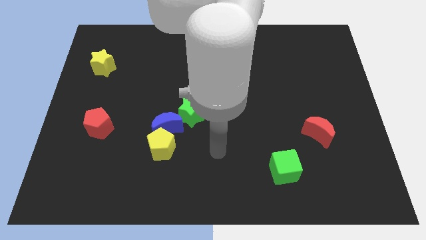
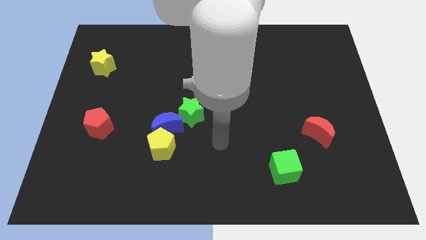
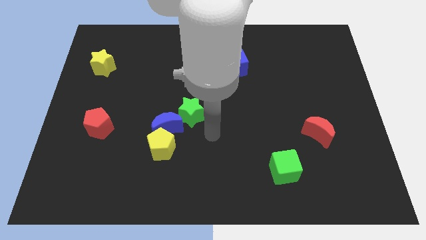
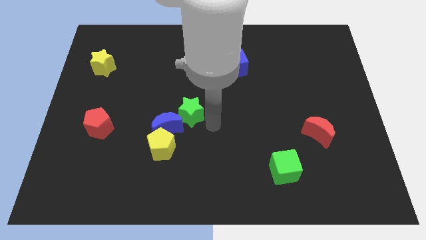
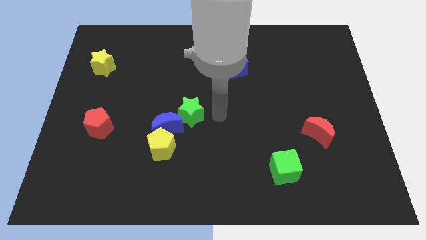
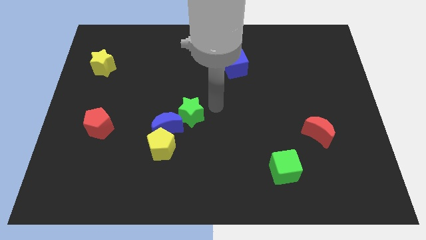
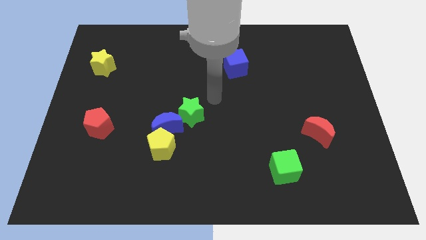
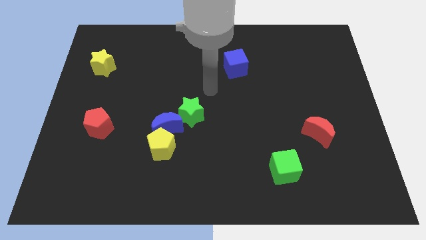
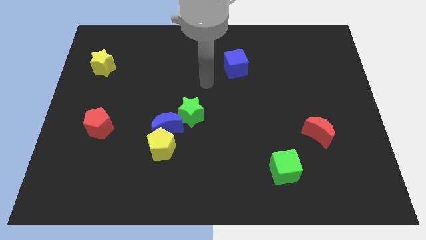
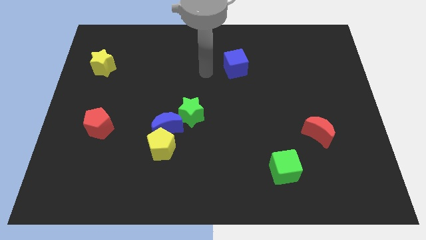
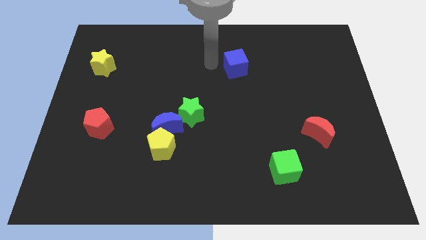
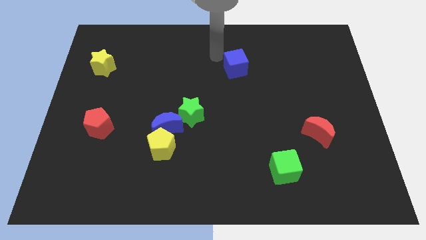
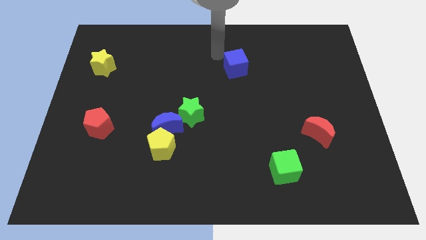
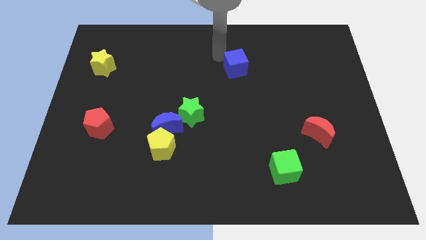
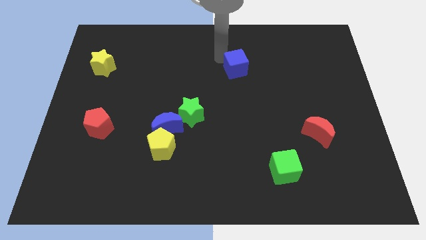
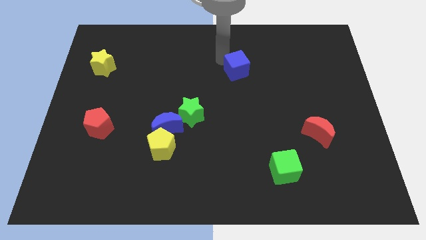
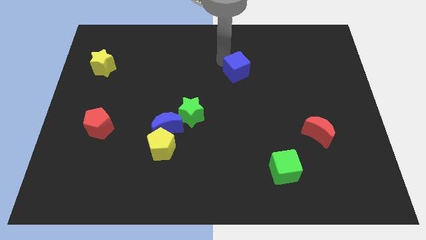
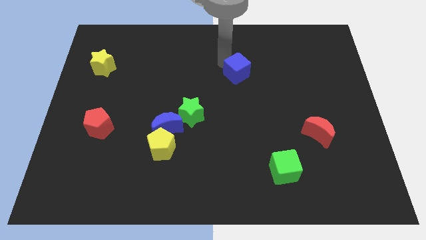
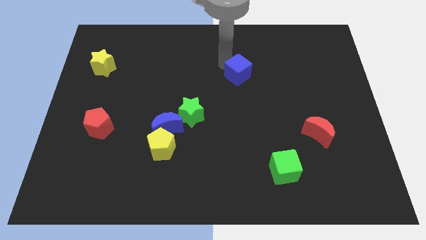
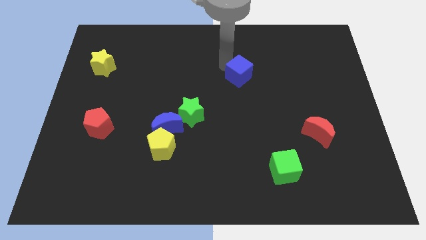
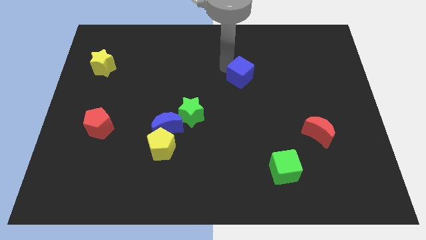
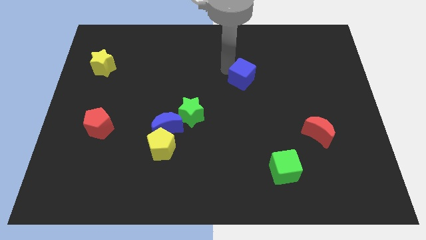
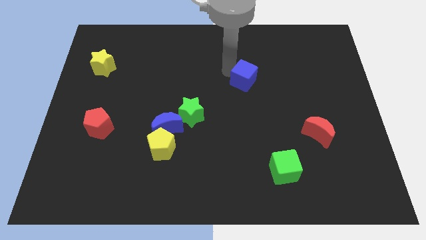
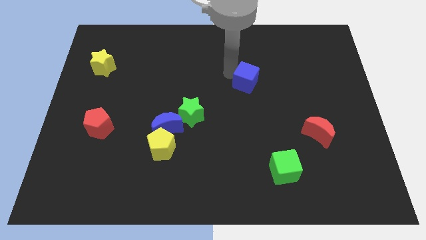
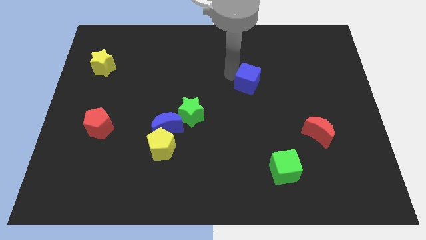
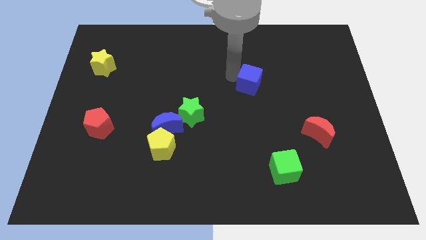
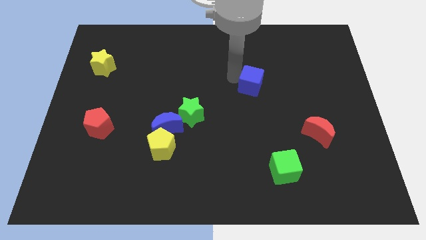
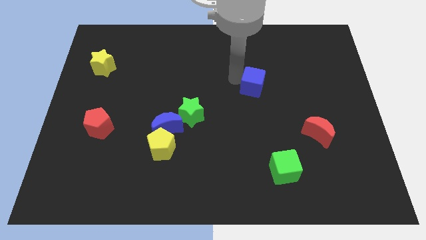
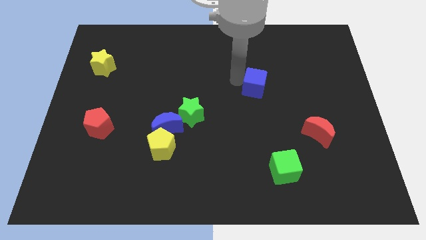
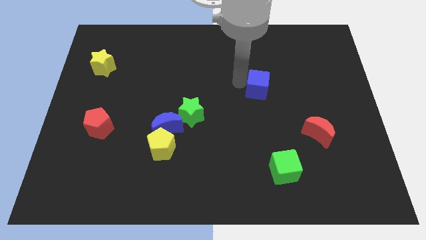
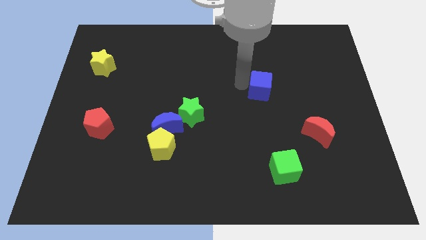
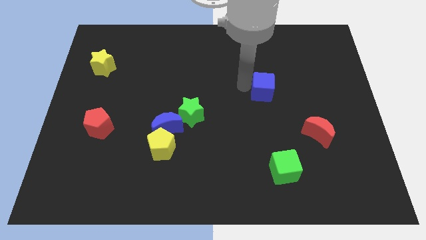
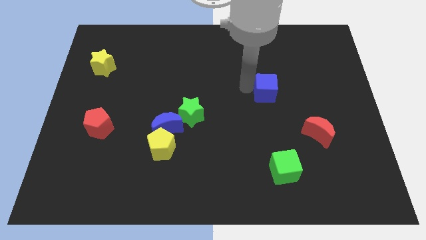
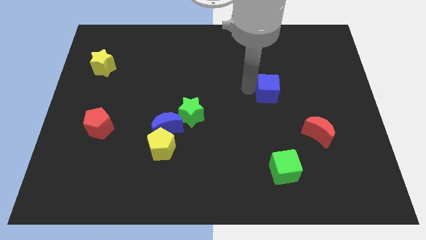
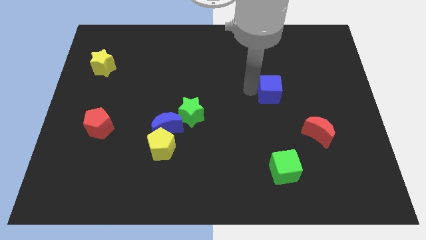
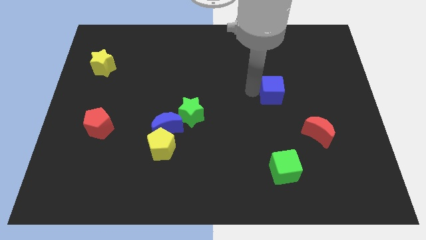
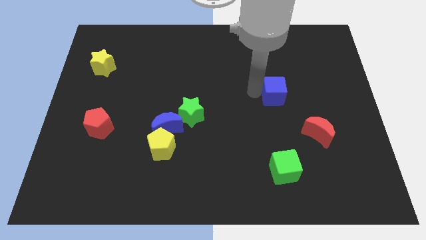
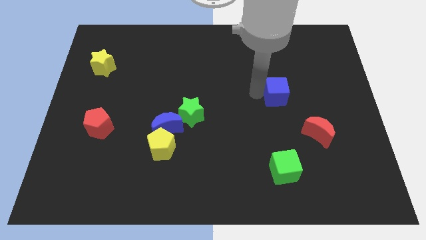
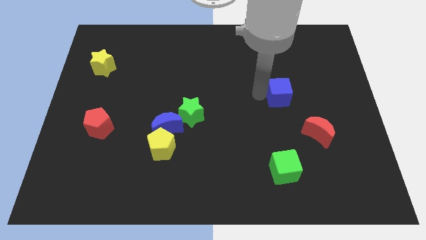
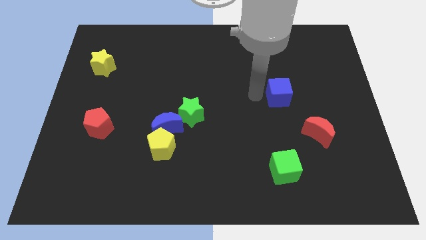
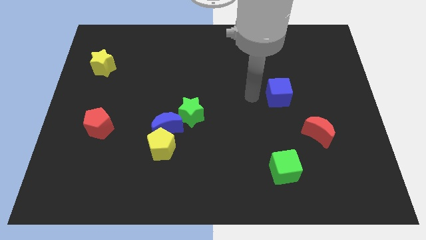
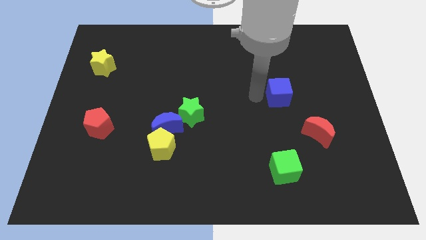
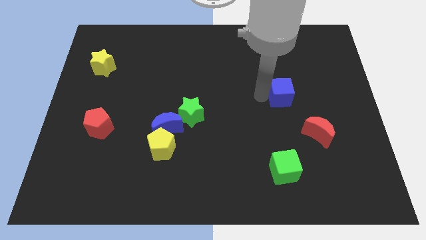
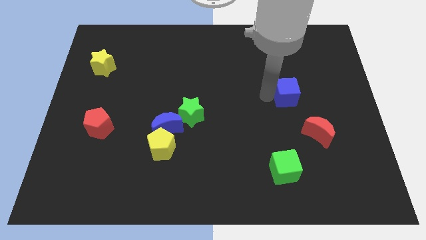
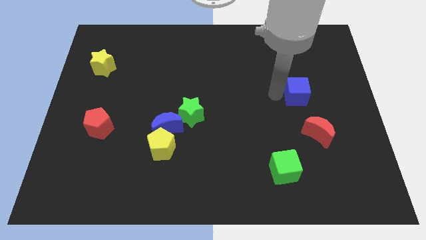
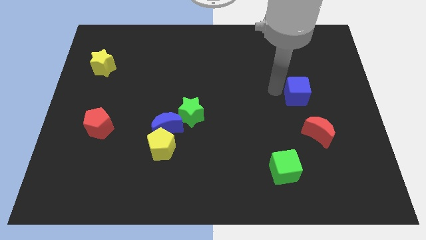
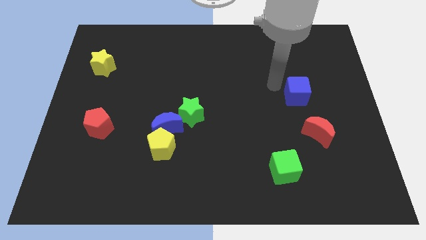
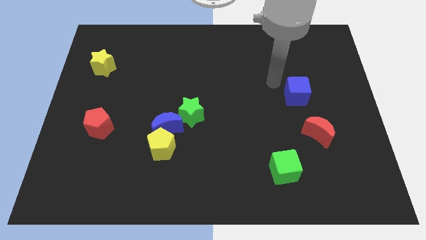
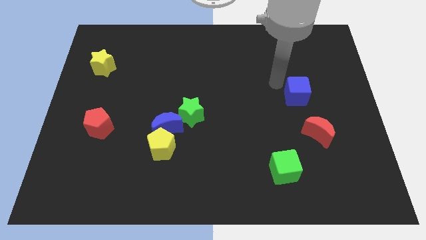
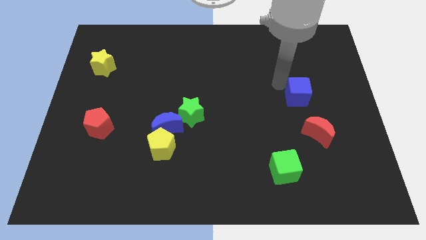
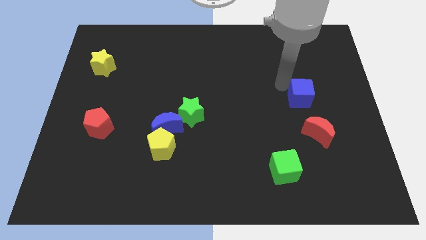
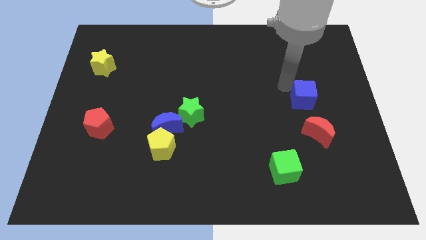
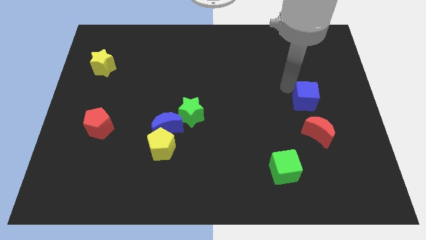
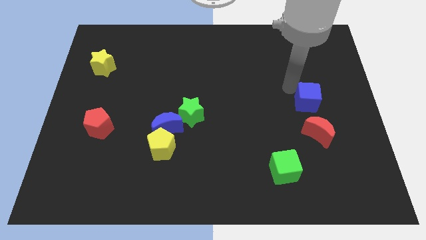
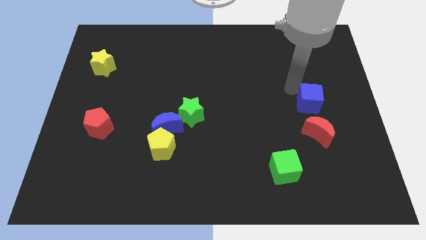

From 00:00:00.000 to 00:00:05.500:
slide the blue cube downwards and to the right

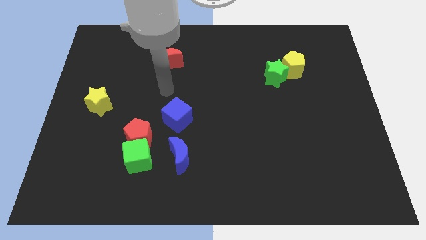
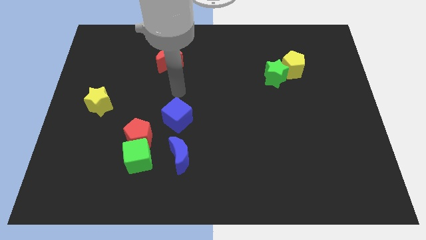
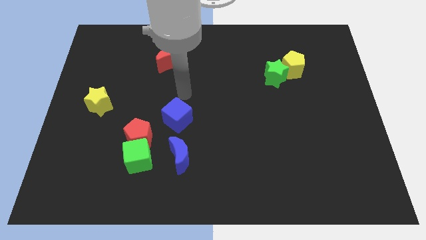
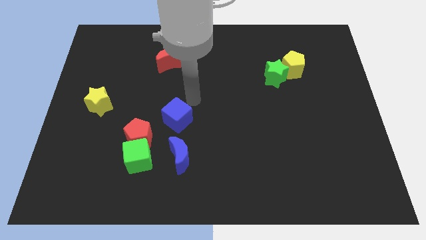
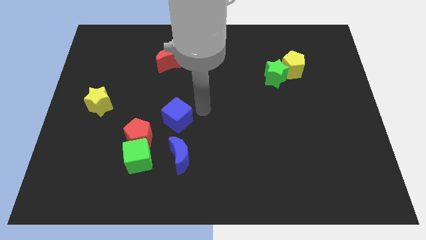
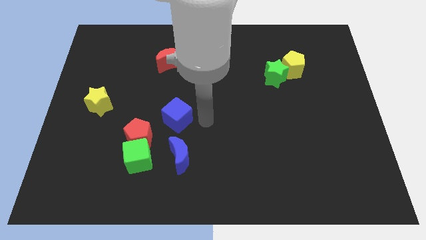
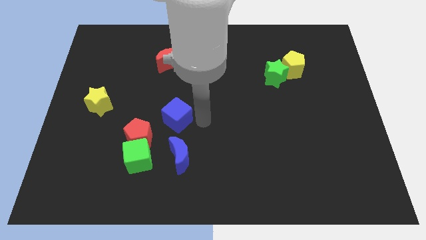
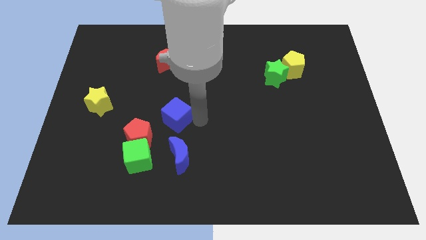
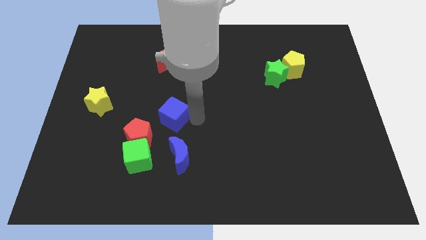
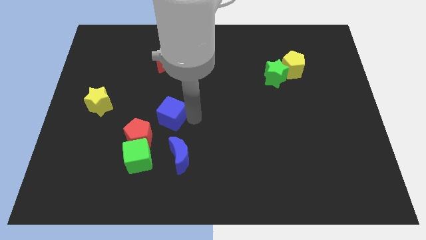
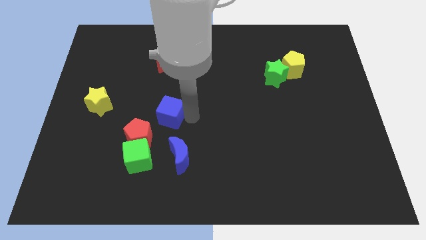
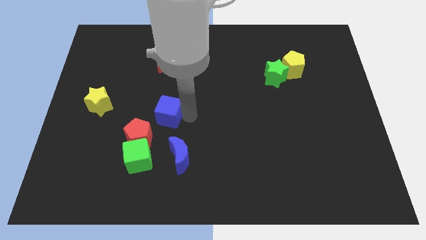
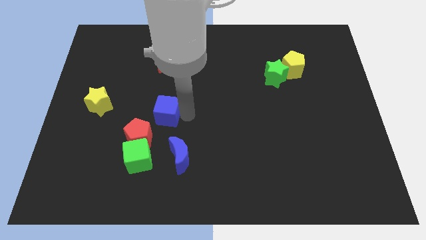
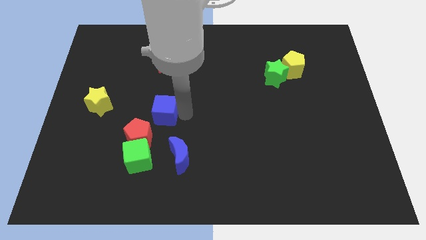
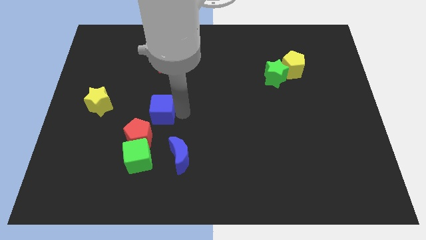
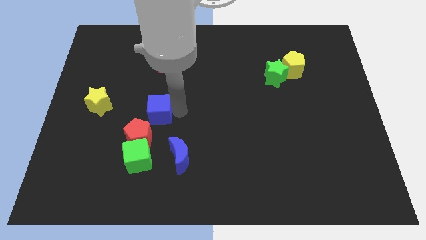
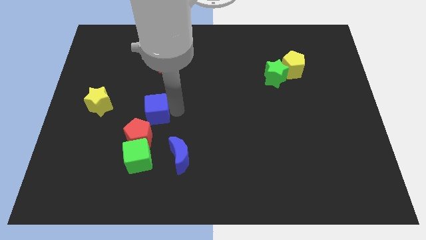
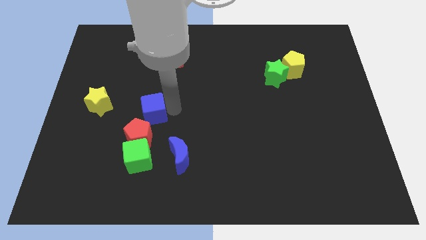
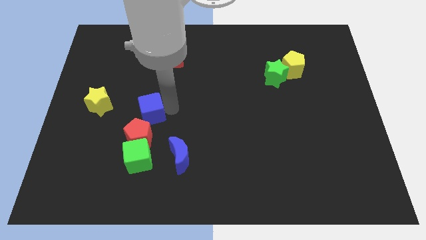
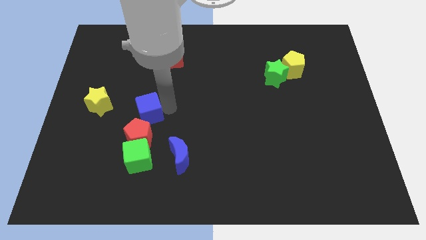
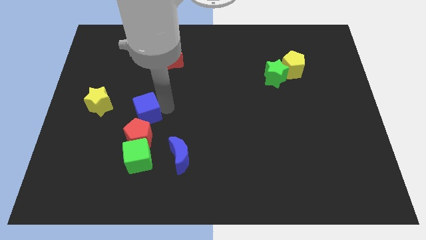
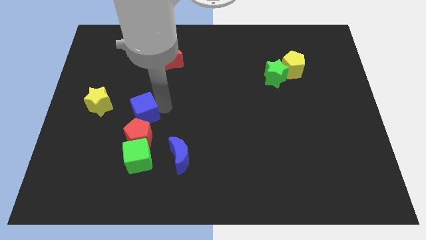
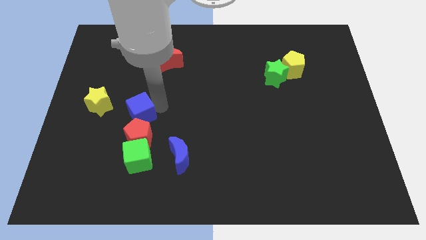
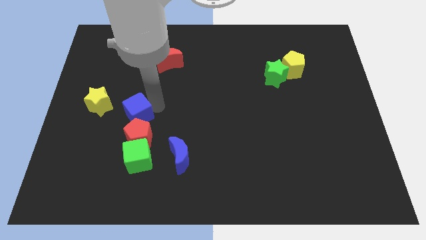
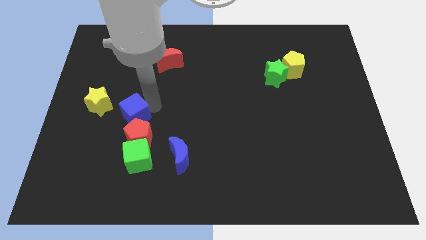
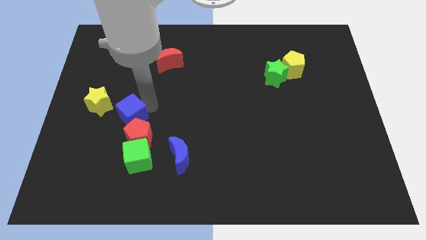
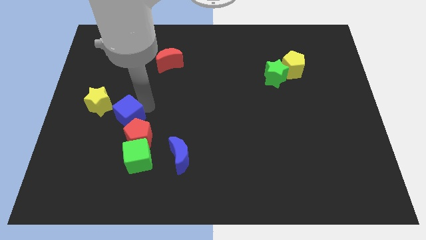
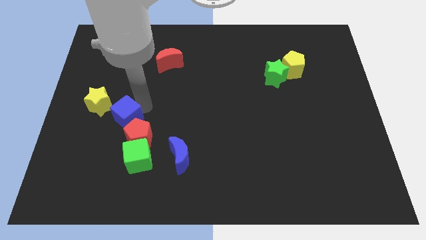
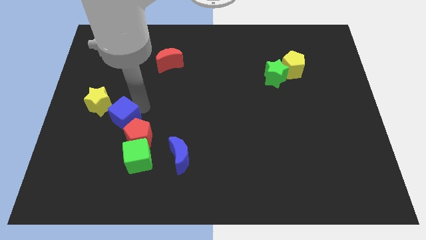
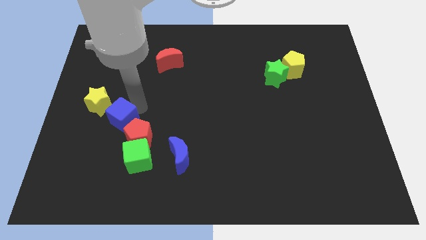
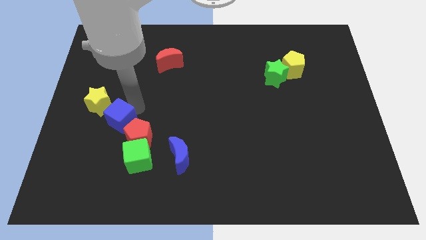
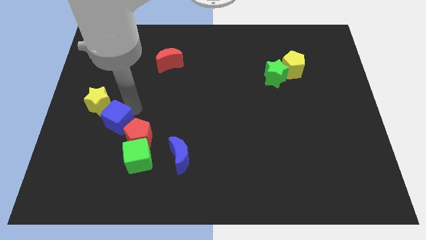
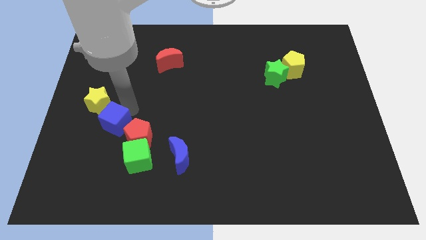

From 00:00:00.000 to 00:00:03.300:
move the blue cube slightly diagonally downwards and to the left

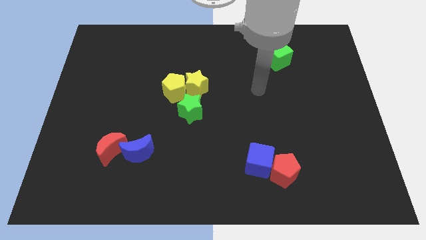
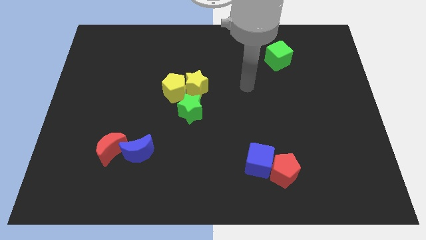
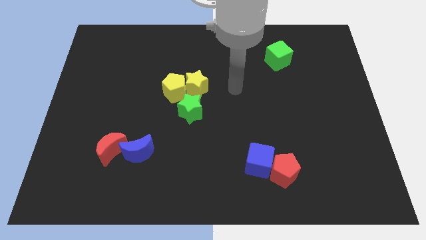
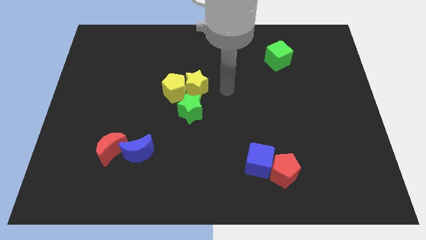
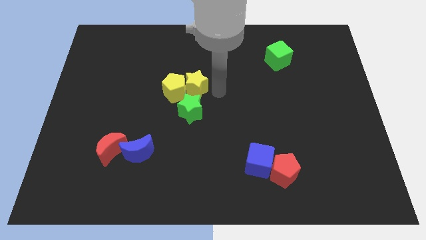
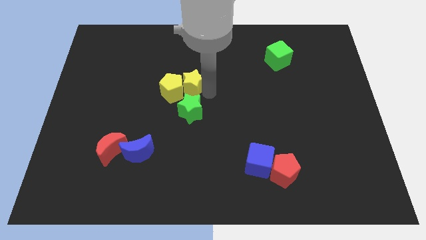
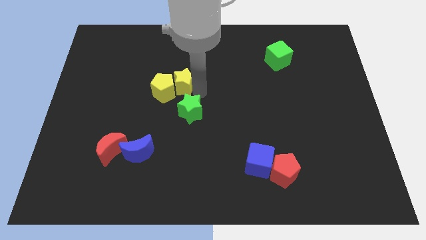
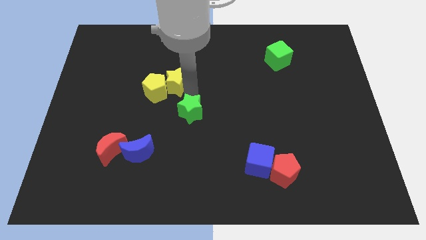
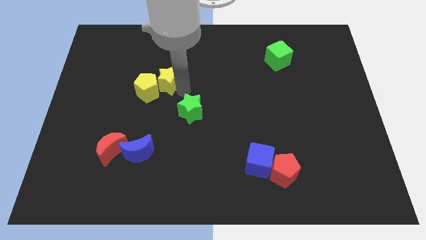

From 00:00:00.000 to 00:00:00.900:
slide the yellow pentagon to the left a bit
